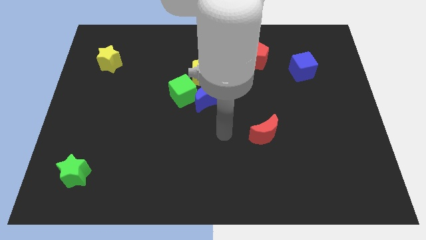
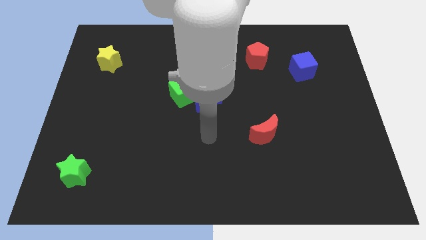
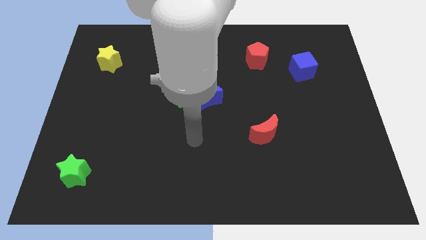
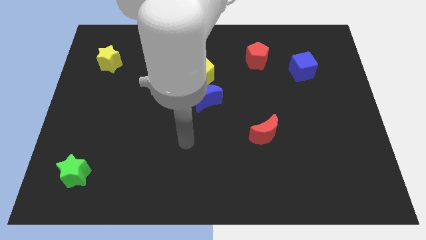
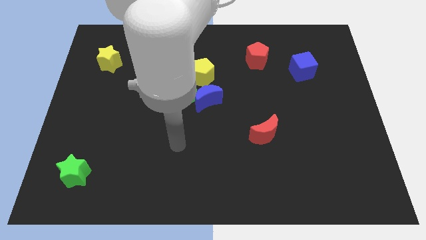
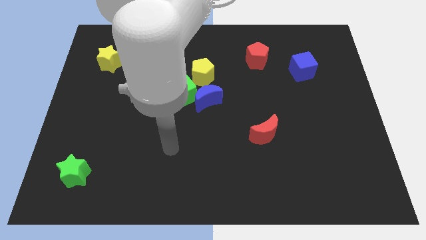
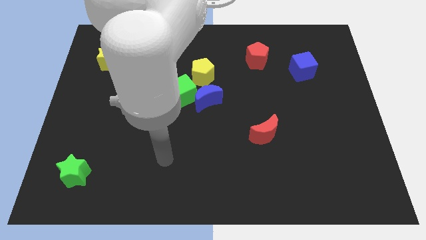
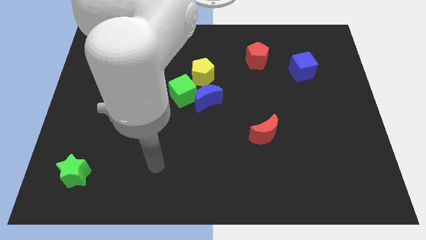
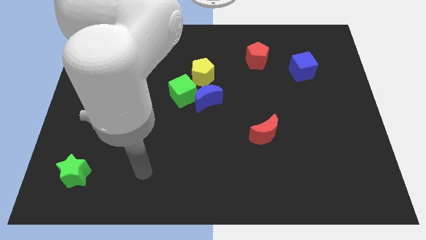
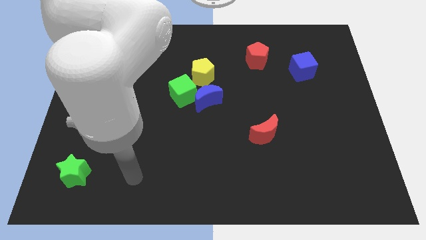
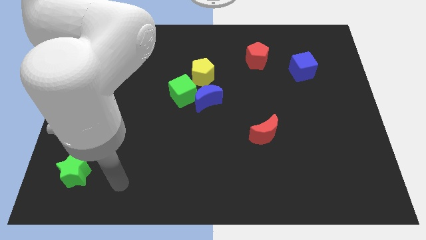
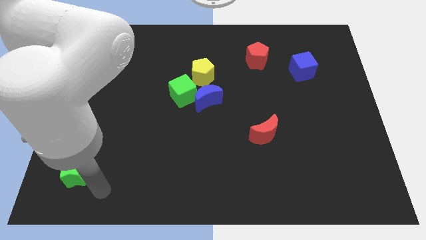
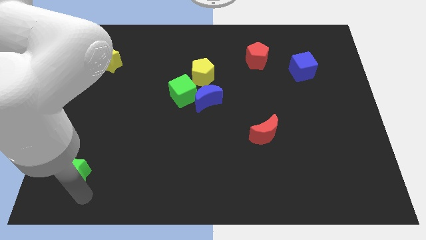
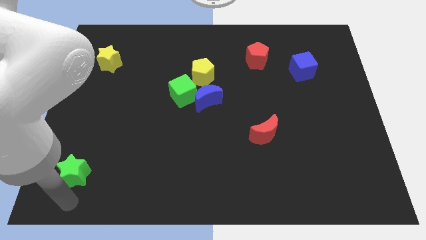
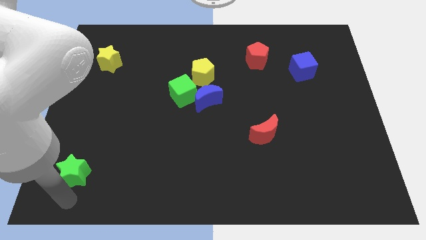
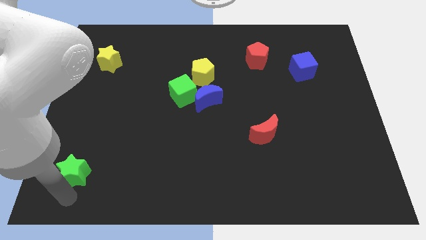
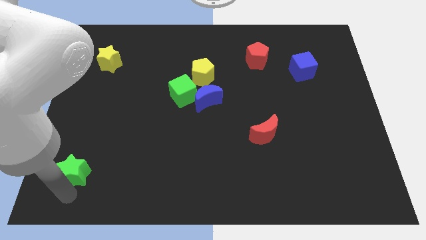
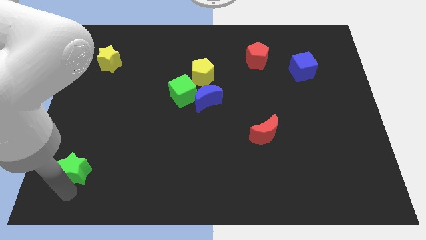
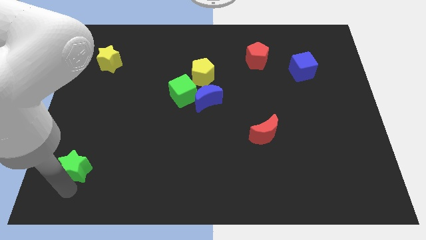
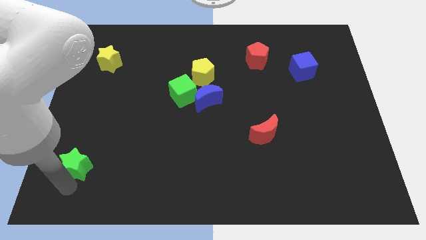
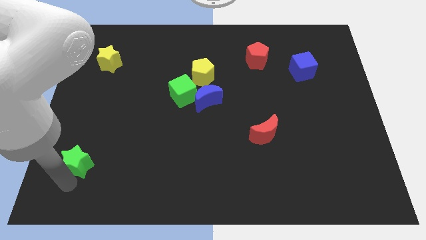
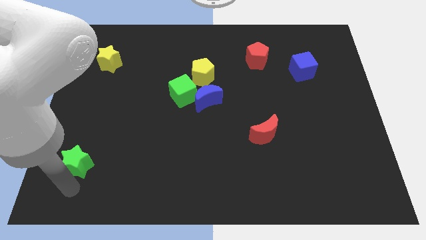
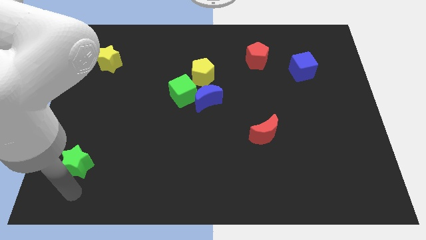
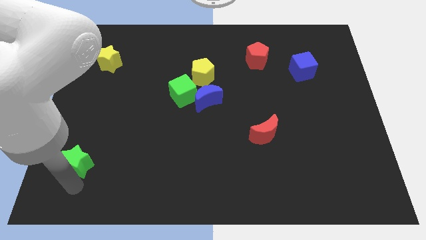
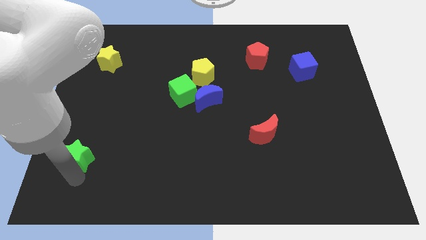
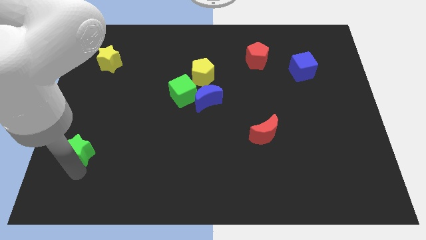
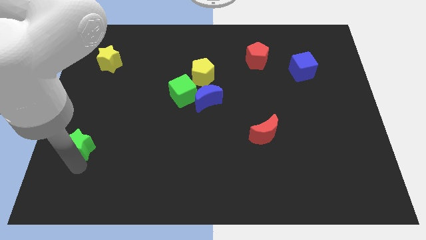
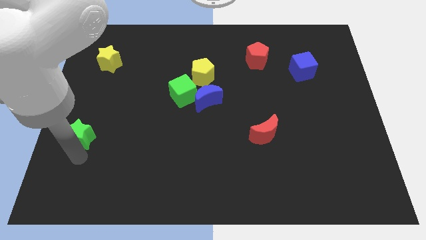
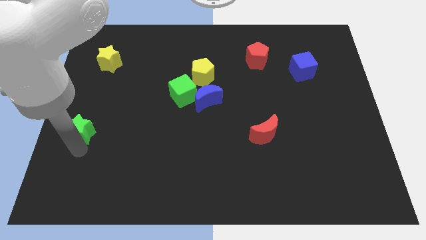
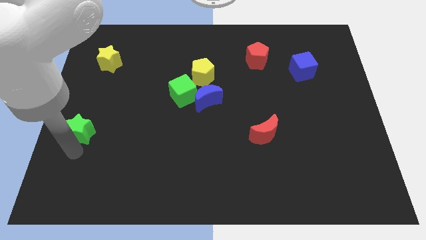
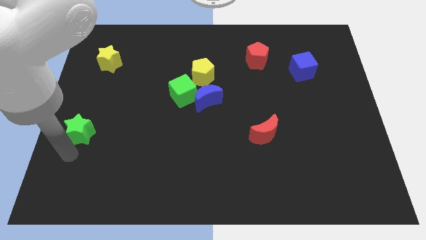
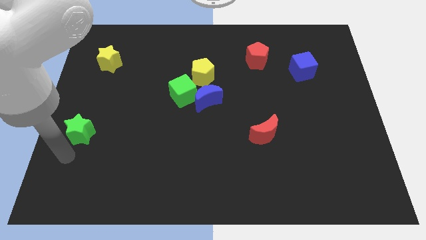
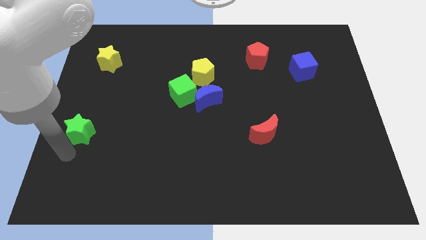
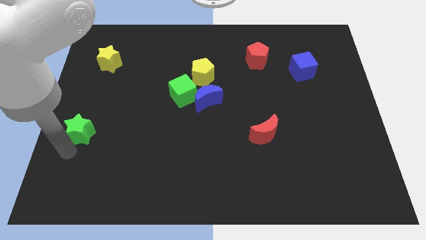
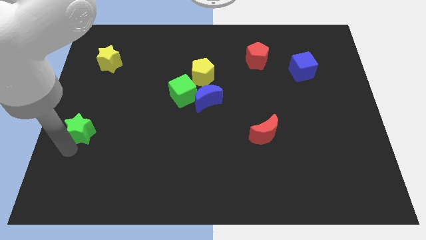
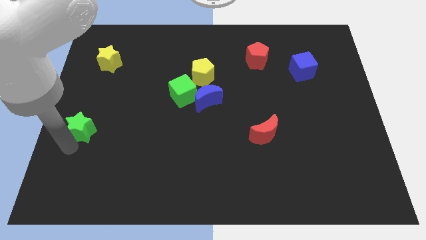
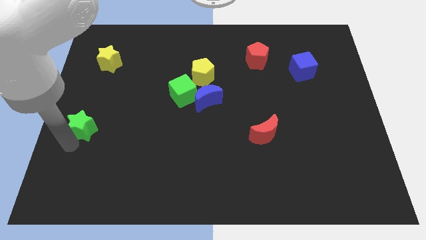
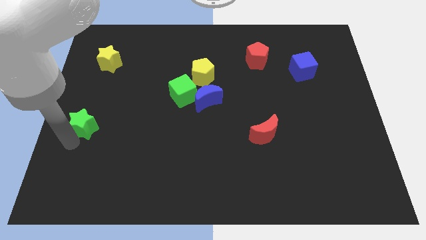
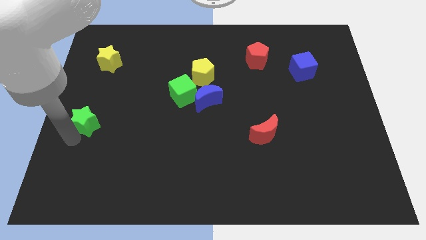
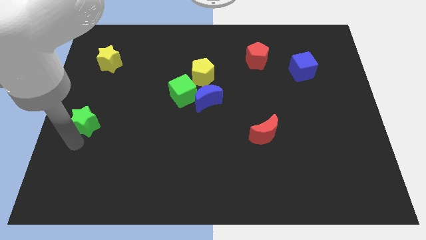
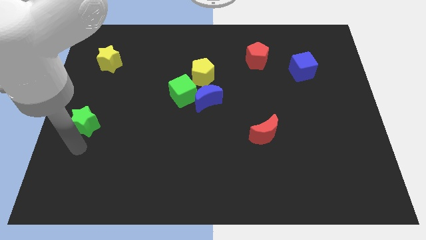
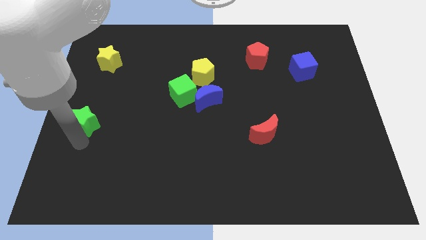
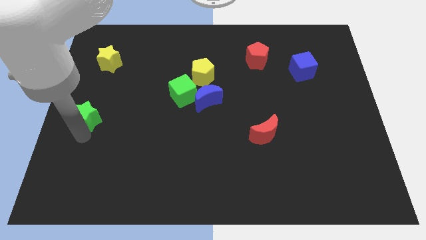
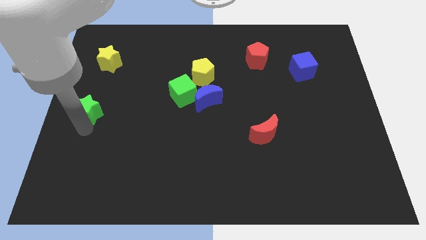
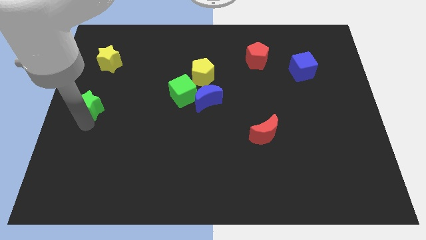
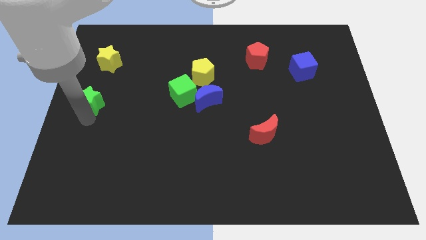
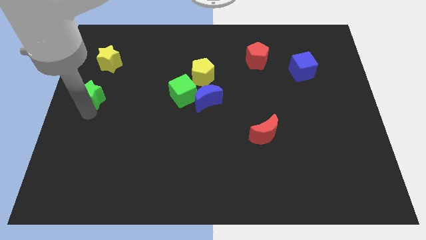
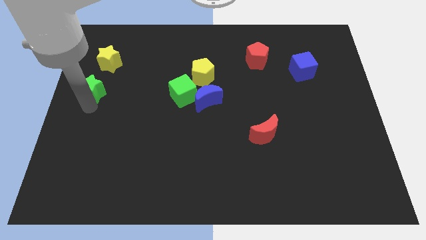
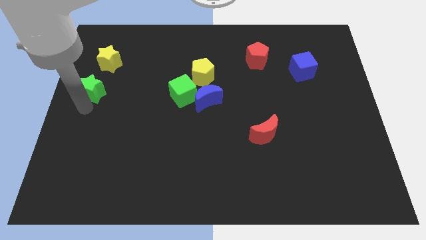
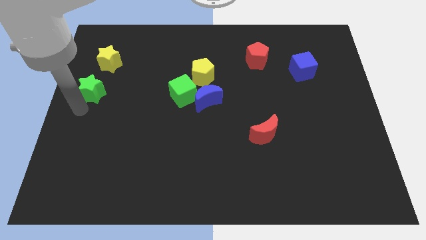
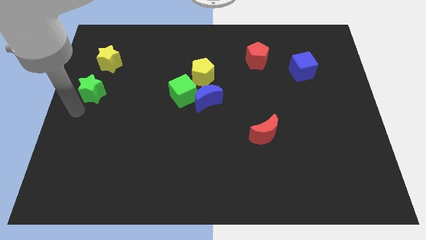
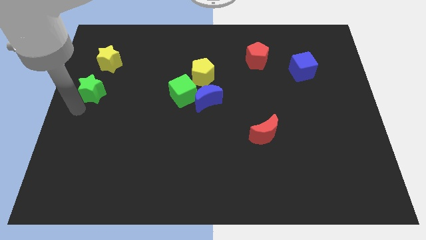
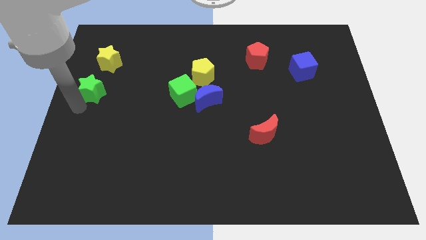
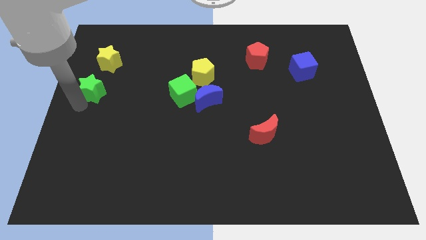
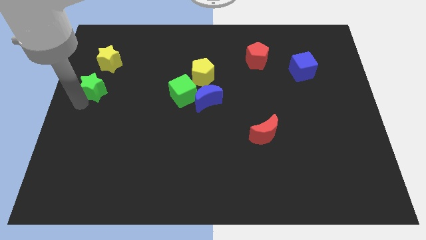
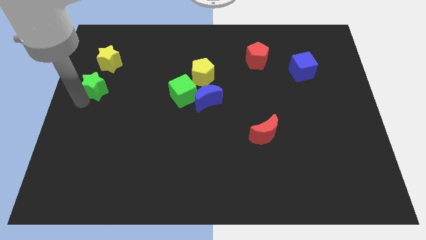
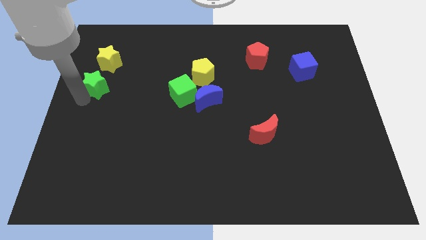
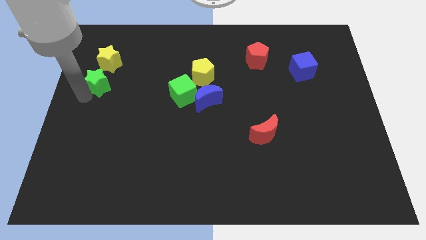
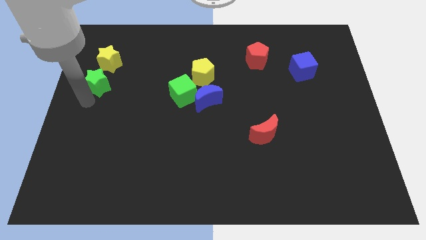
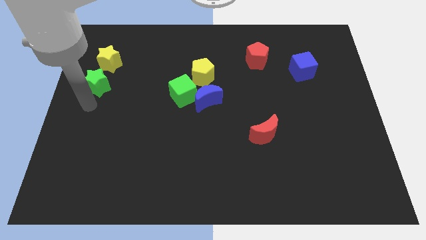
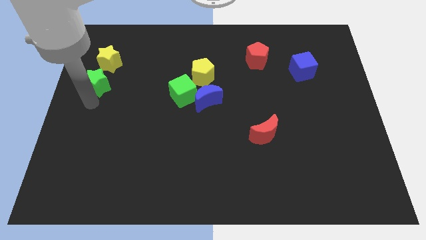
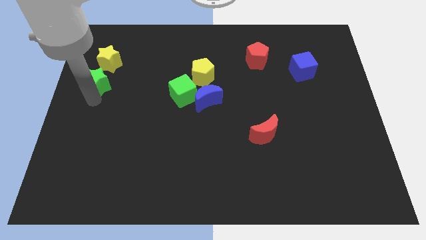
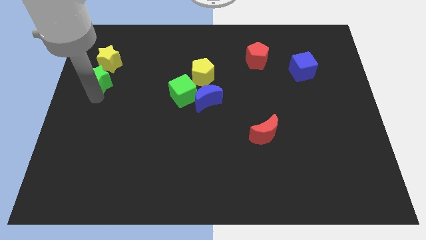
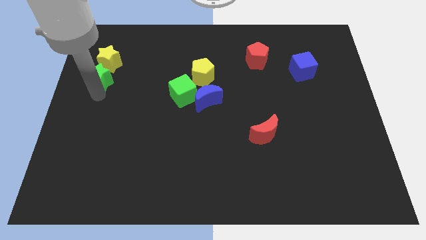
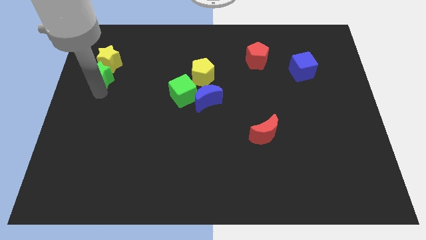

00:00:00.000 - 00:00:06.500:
push the green star close to the yellow star
